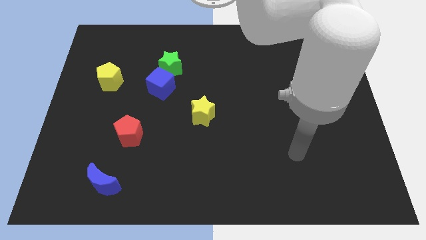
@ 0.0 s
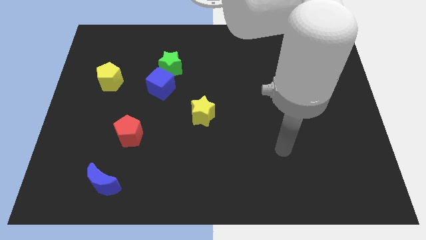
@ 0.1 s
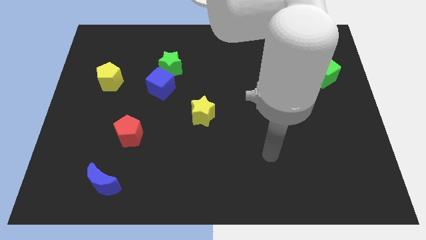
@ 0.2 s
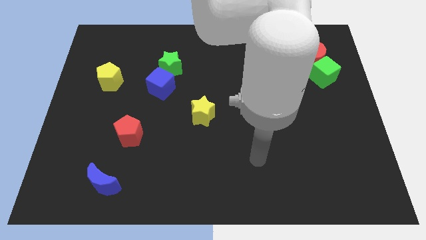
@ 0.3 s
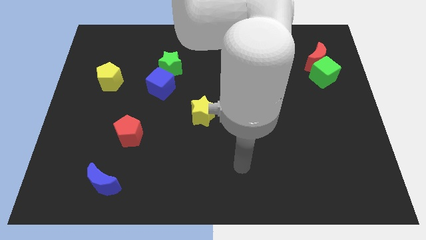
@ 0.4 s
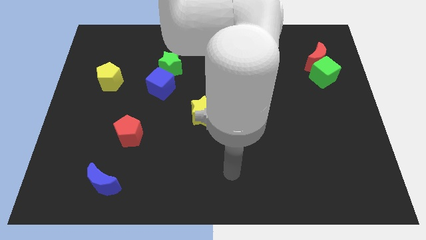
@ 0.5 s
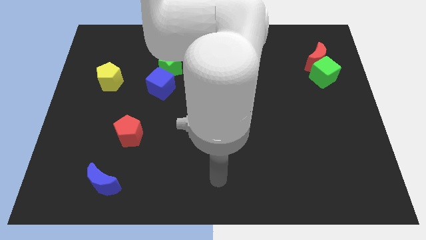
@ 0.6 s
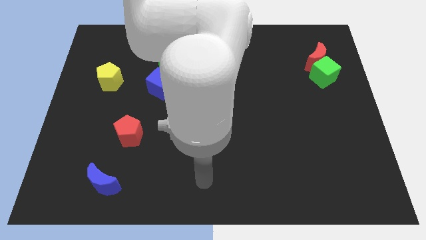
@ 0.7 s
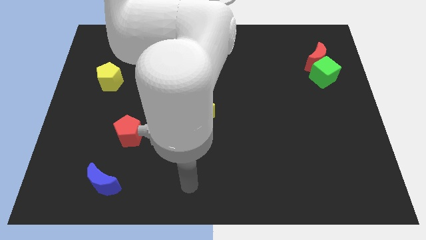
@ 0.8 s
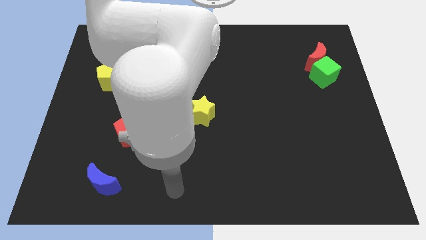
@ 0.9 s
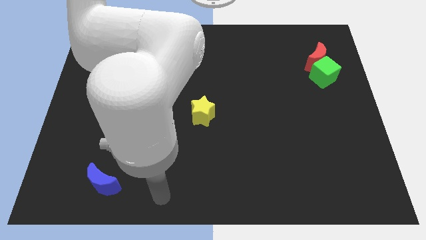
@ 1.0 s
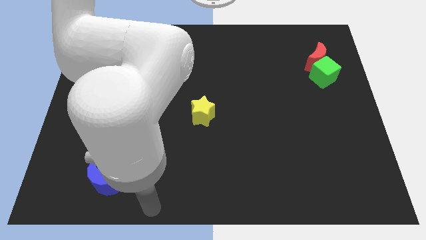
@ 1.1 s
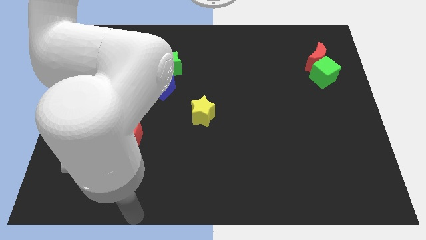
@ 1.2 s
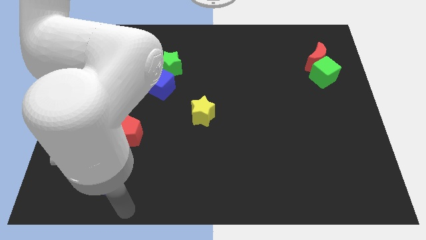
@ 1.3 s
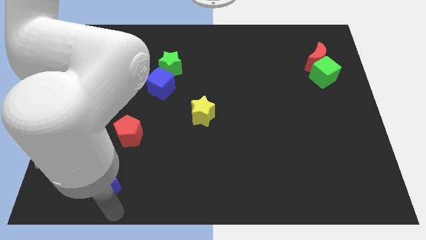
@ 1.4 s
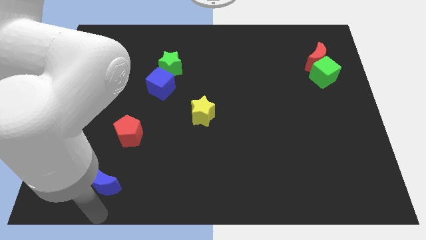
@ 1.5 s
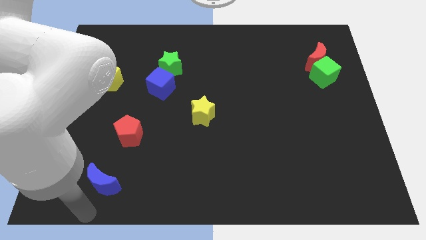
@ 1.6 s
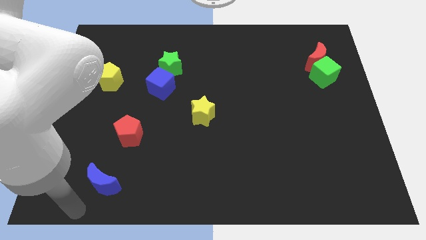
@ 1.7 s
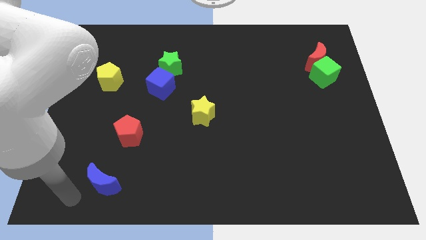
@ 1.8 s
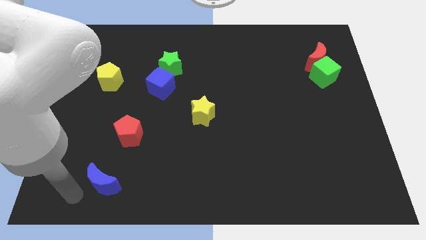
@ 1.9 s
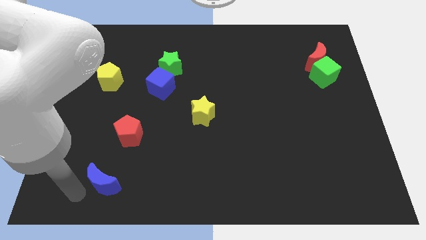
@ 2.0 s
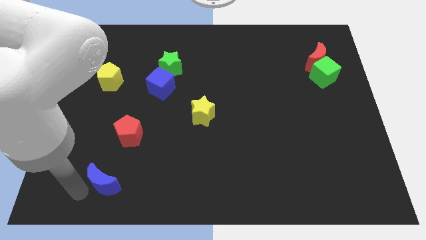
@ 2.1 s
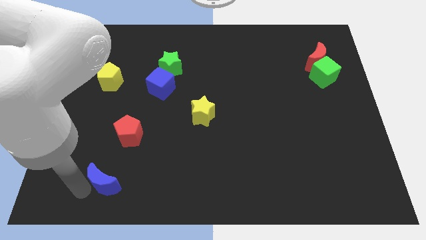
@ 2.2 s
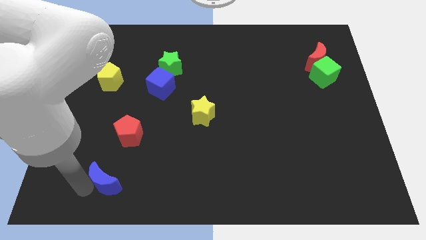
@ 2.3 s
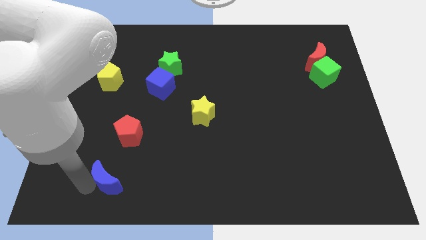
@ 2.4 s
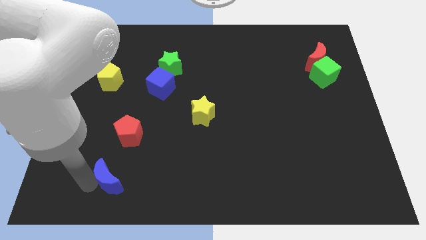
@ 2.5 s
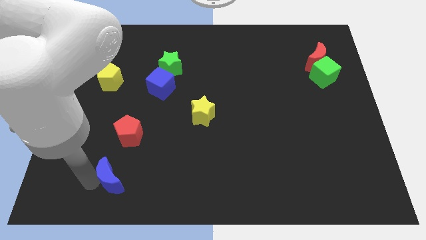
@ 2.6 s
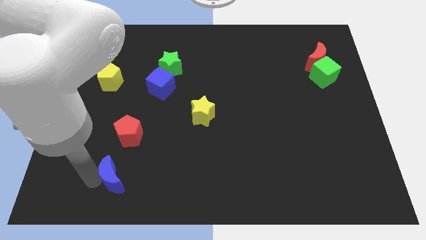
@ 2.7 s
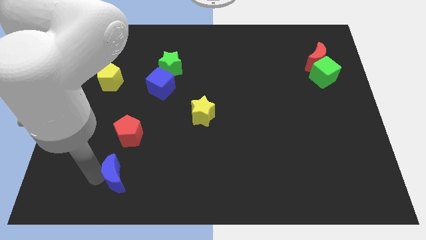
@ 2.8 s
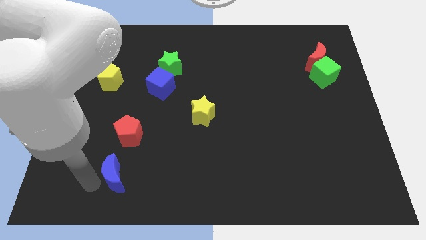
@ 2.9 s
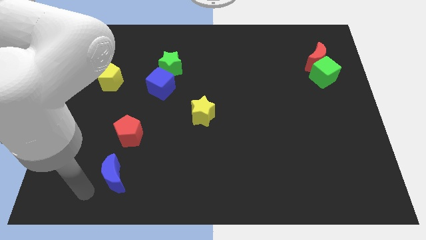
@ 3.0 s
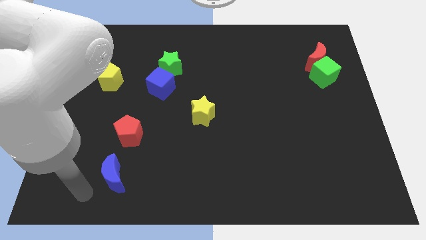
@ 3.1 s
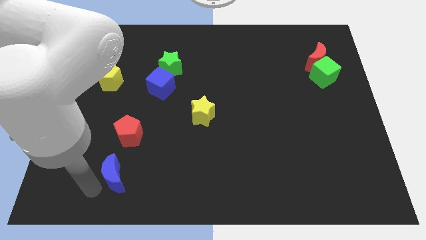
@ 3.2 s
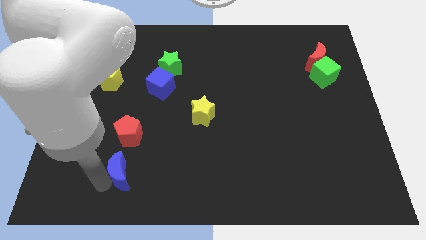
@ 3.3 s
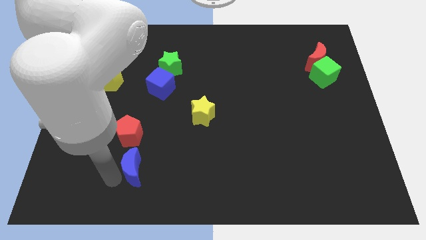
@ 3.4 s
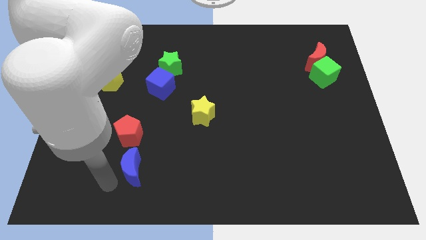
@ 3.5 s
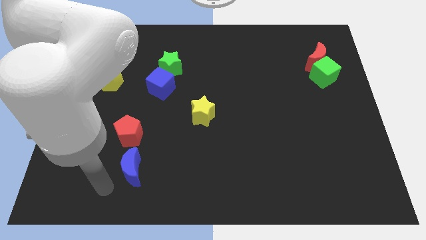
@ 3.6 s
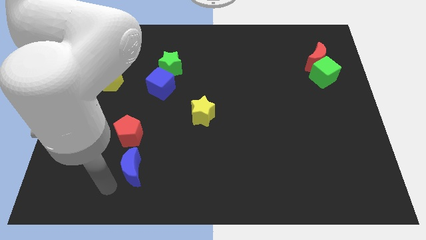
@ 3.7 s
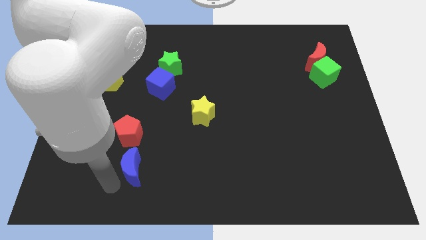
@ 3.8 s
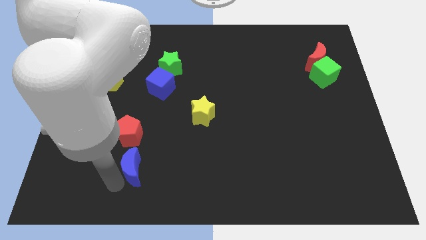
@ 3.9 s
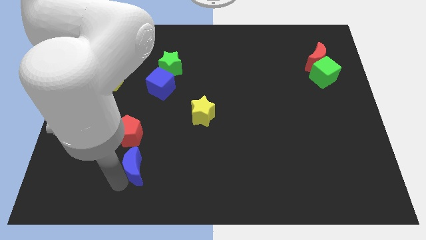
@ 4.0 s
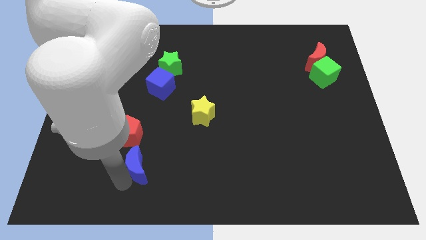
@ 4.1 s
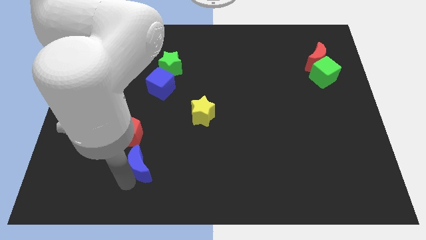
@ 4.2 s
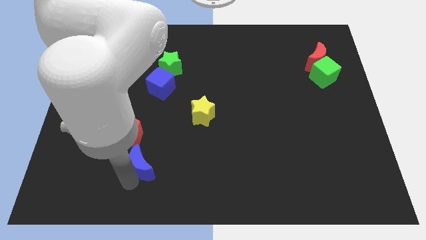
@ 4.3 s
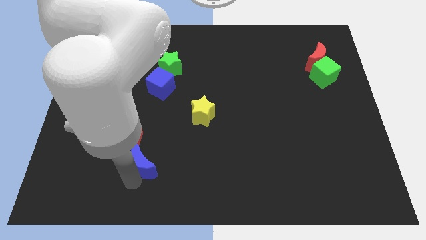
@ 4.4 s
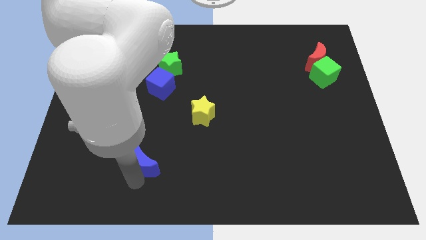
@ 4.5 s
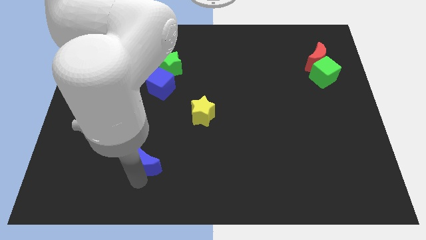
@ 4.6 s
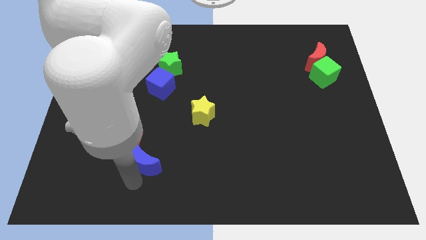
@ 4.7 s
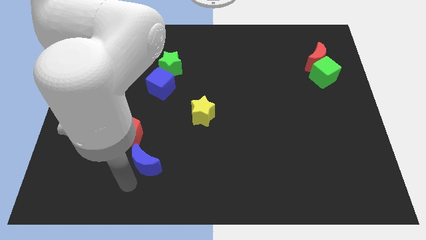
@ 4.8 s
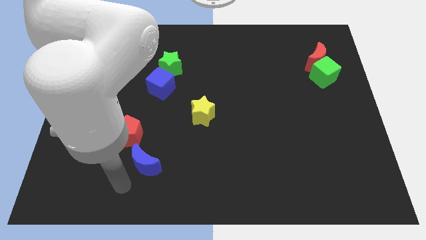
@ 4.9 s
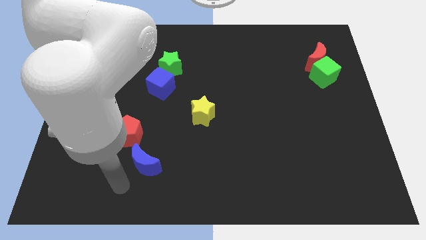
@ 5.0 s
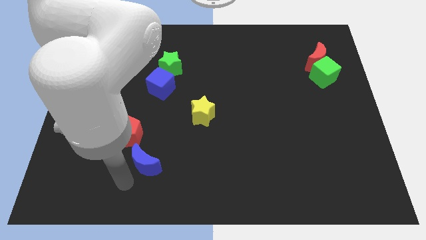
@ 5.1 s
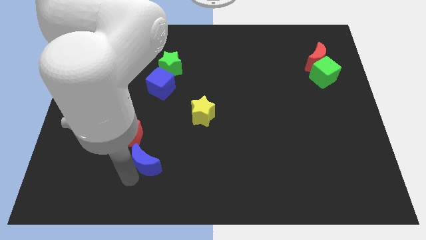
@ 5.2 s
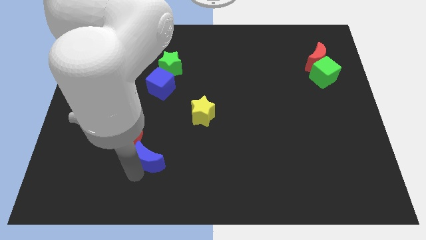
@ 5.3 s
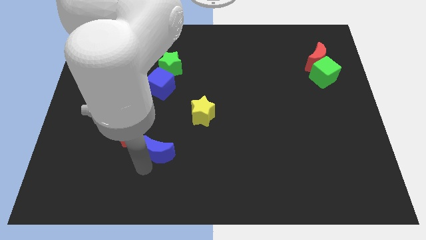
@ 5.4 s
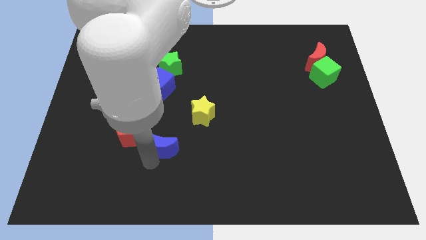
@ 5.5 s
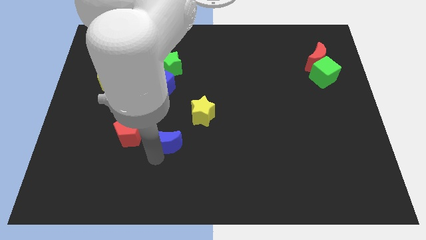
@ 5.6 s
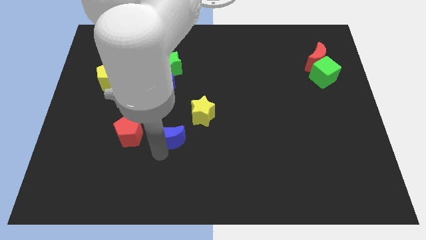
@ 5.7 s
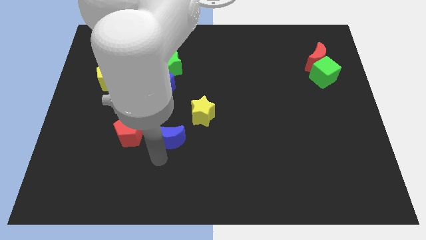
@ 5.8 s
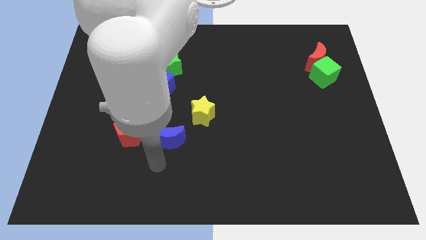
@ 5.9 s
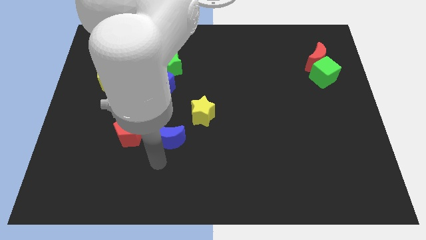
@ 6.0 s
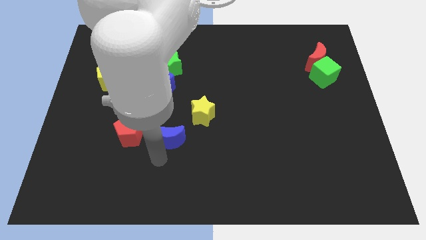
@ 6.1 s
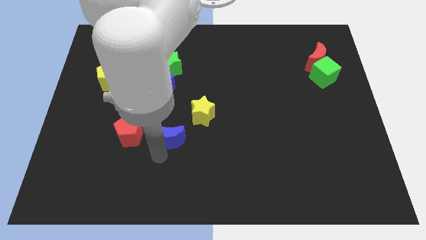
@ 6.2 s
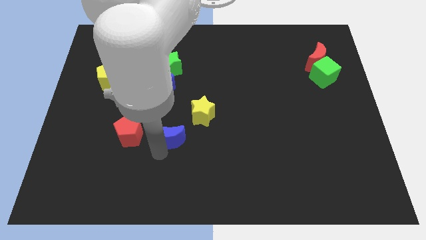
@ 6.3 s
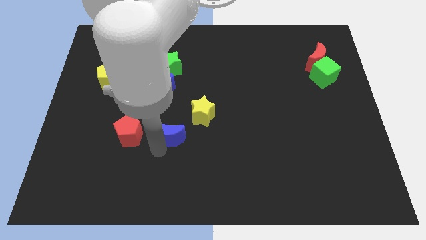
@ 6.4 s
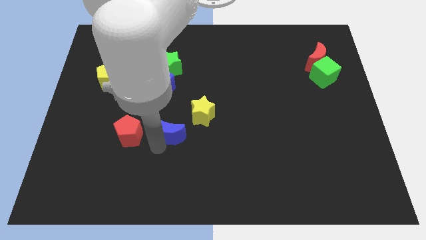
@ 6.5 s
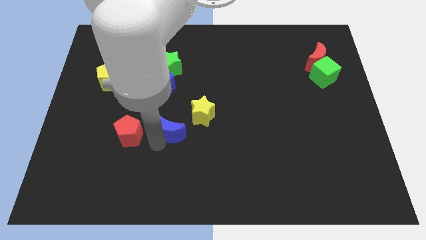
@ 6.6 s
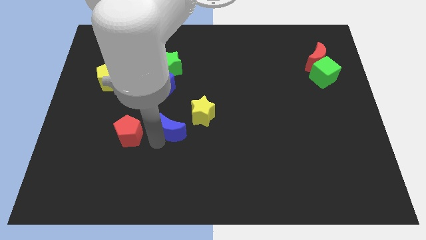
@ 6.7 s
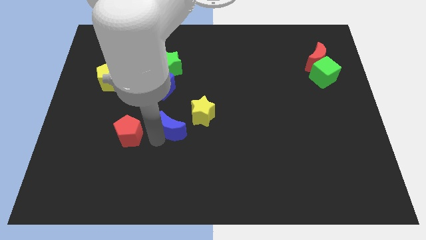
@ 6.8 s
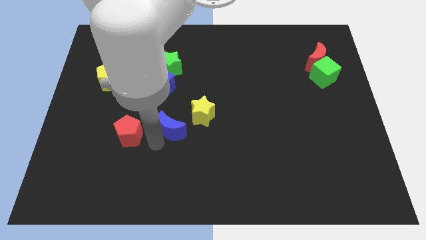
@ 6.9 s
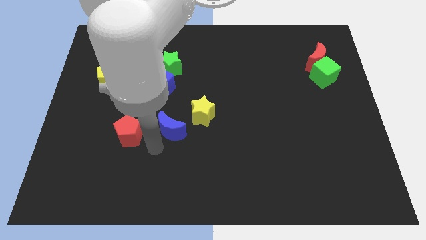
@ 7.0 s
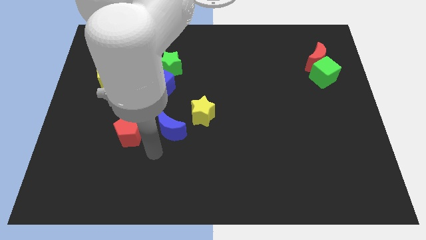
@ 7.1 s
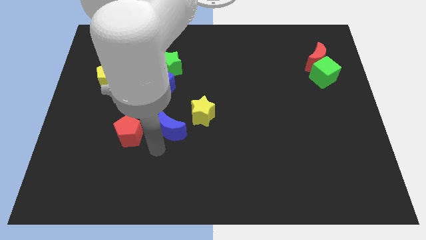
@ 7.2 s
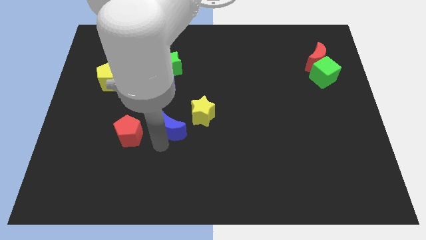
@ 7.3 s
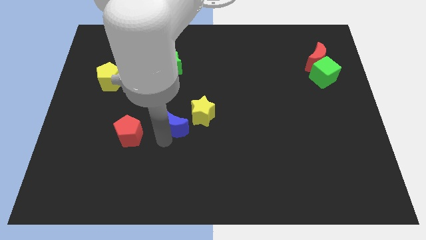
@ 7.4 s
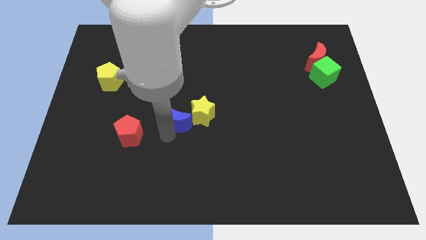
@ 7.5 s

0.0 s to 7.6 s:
slide the blue moon diagonally upwards and right
